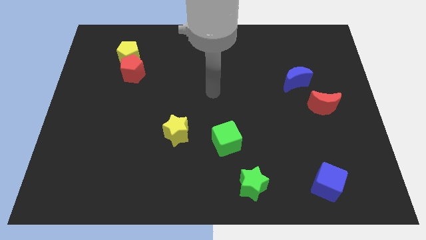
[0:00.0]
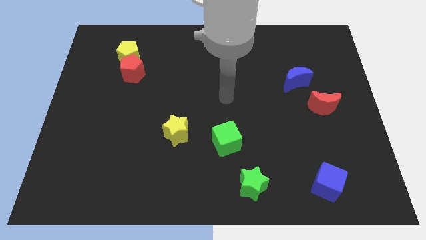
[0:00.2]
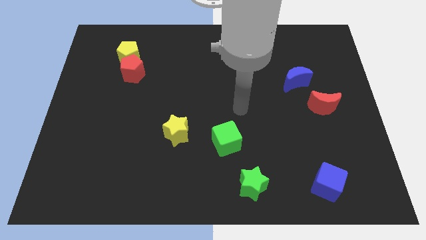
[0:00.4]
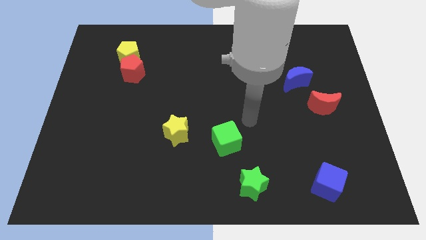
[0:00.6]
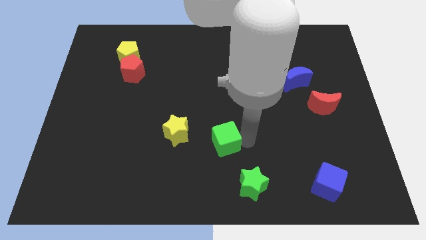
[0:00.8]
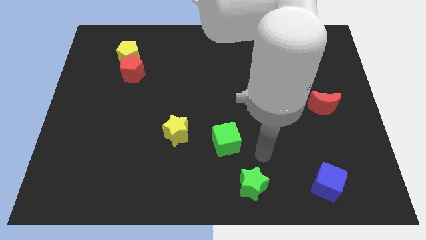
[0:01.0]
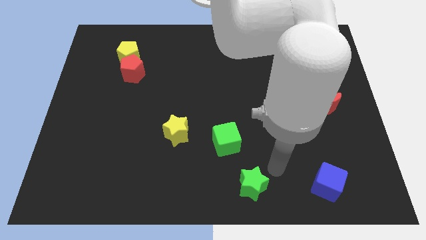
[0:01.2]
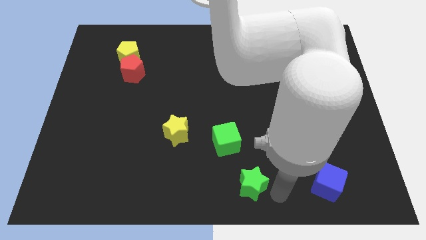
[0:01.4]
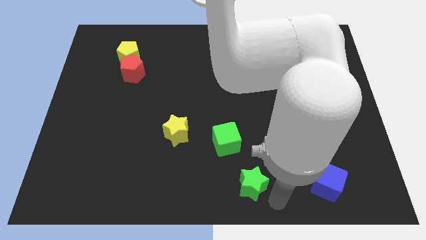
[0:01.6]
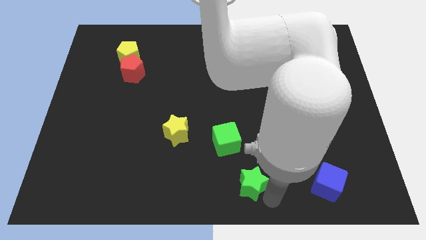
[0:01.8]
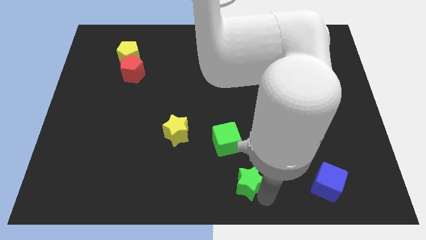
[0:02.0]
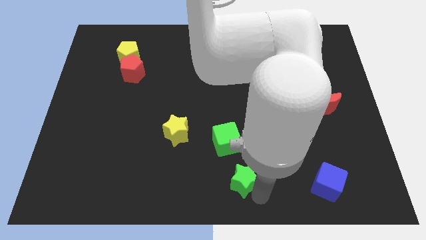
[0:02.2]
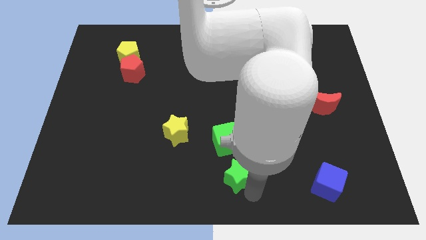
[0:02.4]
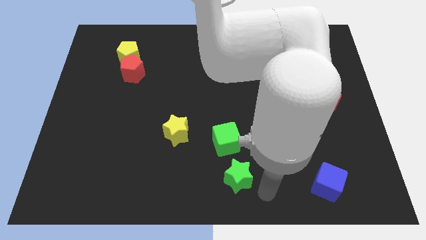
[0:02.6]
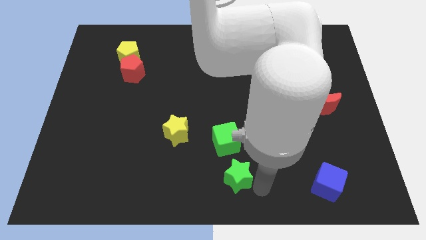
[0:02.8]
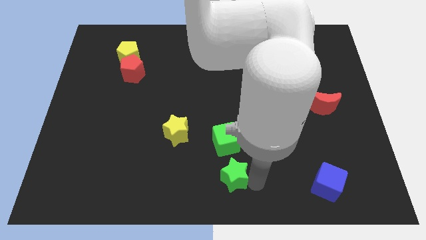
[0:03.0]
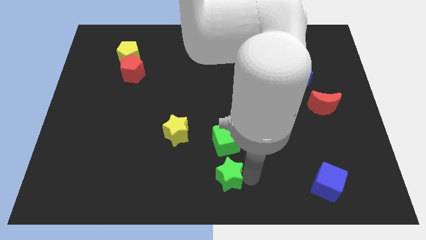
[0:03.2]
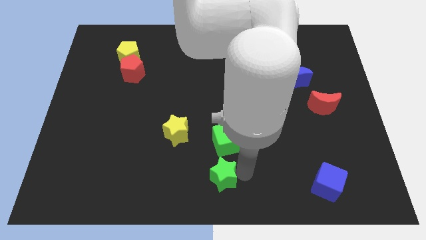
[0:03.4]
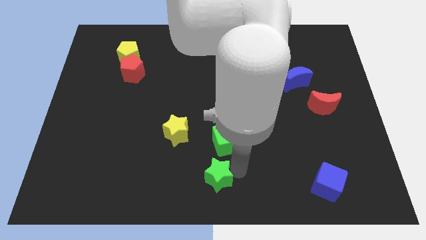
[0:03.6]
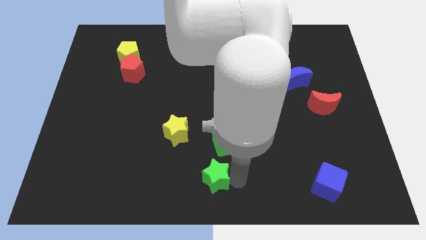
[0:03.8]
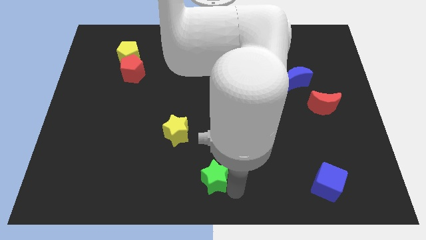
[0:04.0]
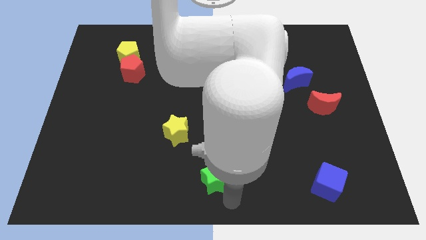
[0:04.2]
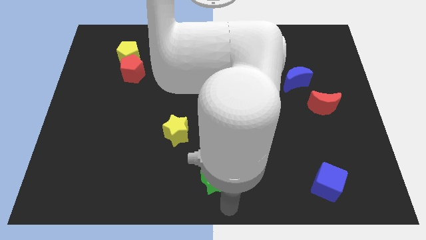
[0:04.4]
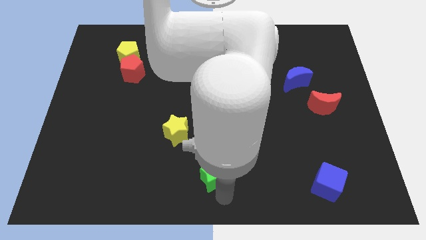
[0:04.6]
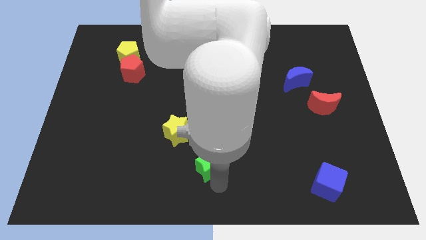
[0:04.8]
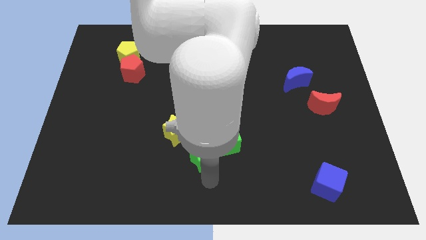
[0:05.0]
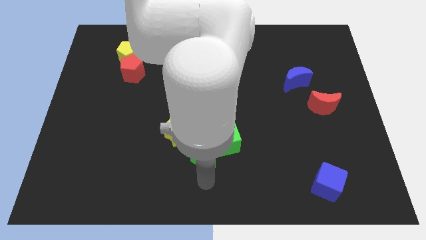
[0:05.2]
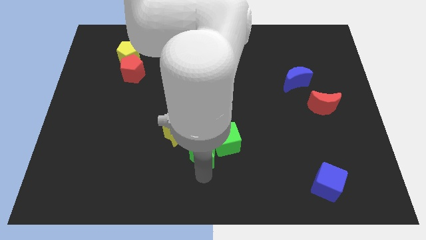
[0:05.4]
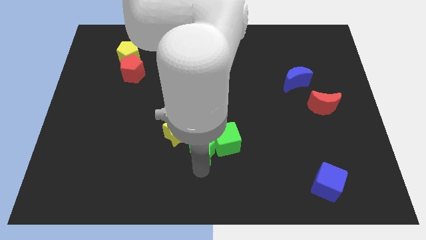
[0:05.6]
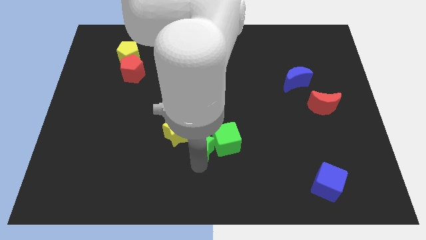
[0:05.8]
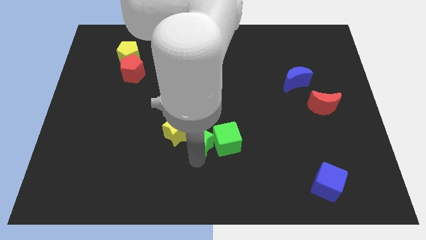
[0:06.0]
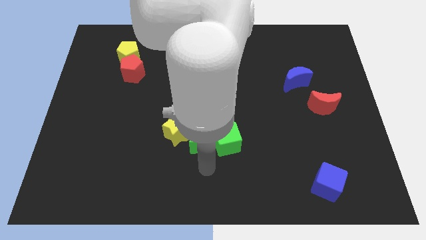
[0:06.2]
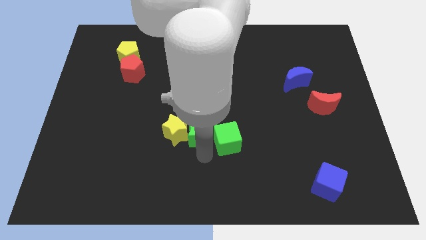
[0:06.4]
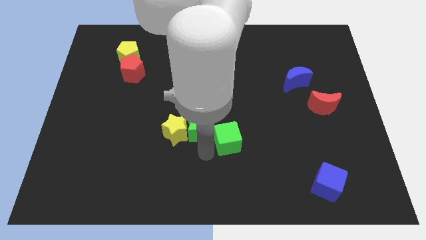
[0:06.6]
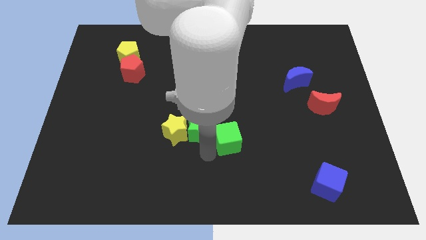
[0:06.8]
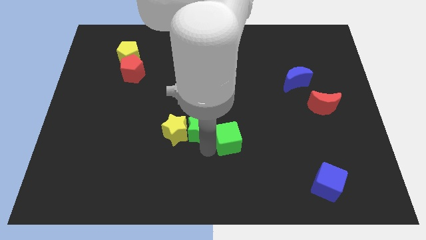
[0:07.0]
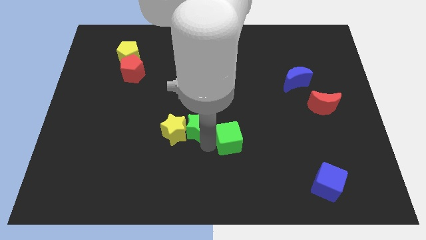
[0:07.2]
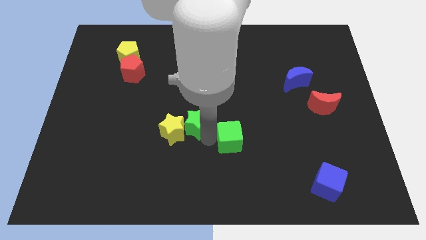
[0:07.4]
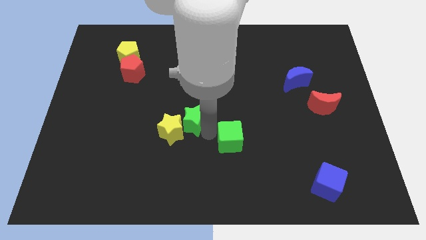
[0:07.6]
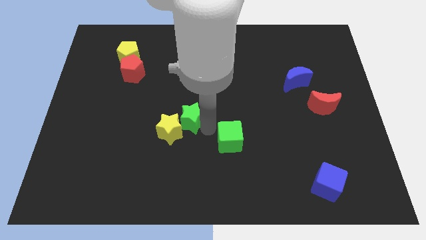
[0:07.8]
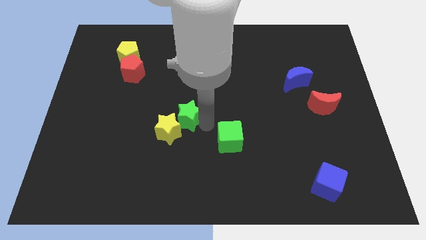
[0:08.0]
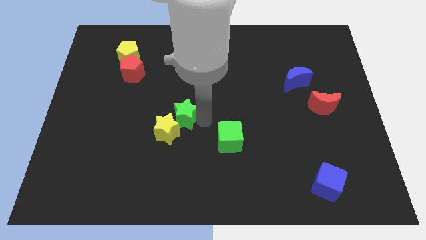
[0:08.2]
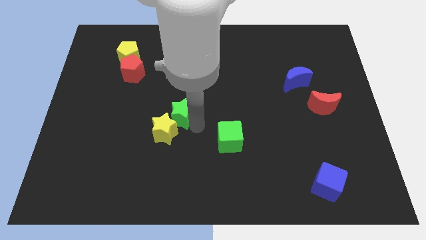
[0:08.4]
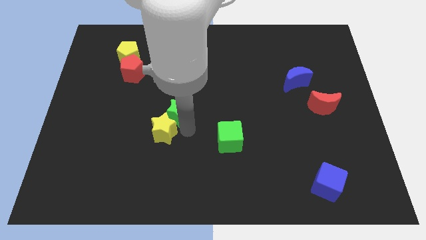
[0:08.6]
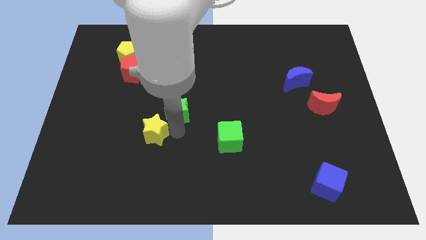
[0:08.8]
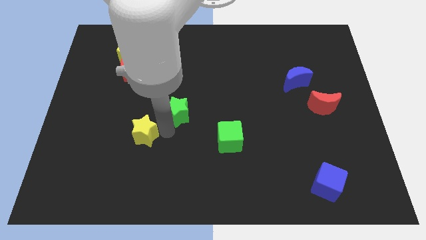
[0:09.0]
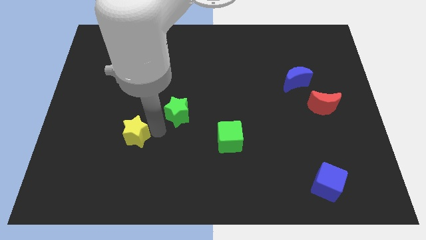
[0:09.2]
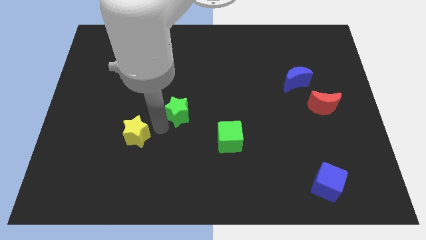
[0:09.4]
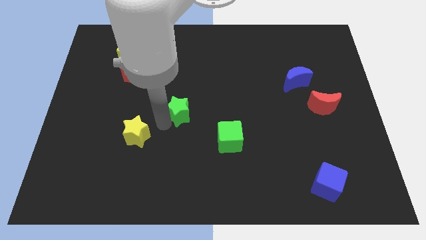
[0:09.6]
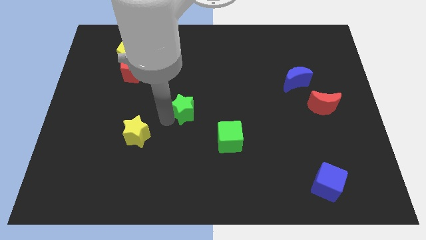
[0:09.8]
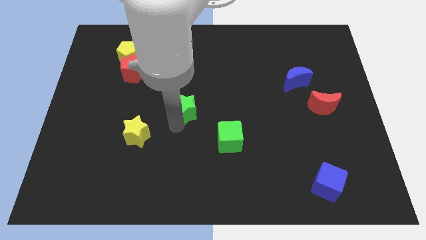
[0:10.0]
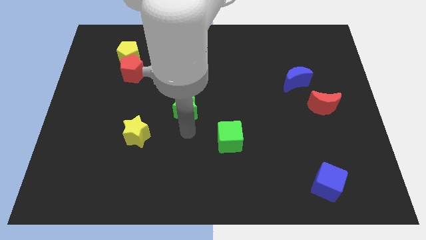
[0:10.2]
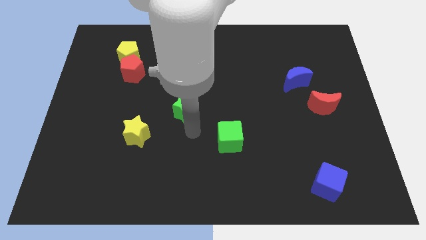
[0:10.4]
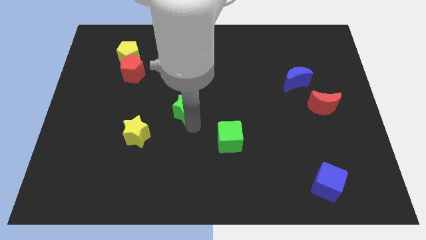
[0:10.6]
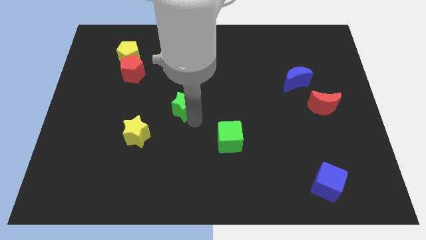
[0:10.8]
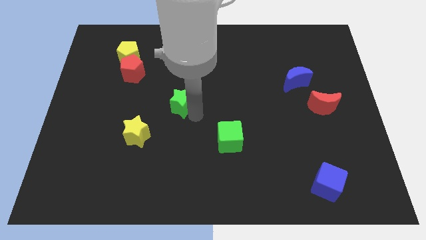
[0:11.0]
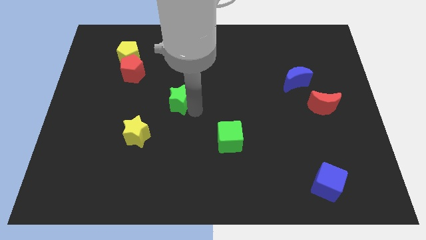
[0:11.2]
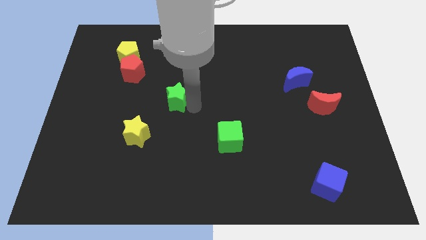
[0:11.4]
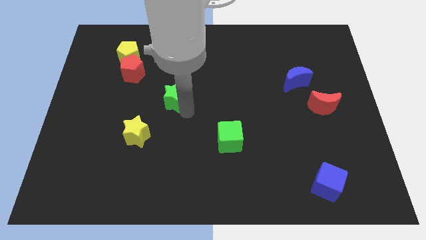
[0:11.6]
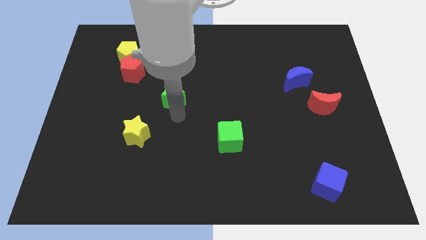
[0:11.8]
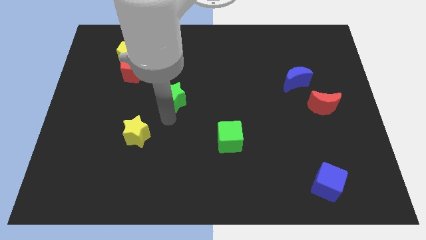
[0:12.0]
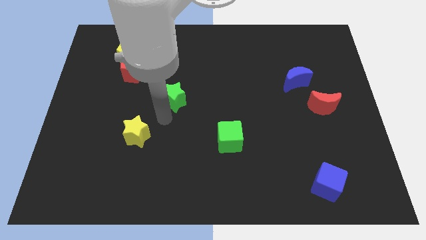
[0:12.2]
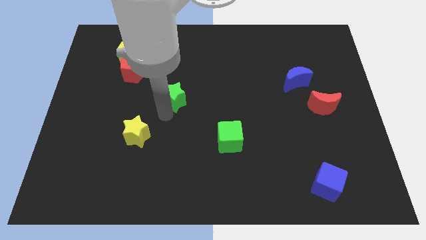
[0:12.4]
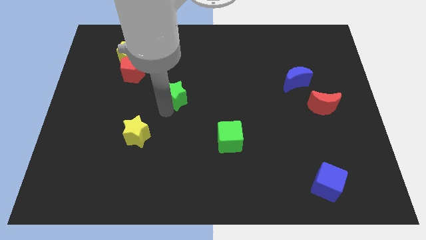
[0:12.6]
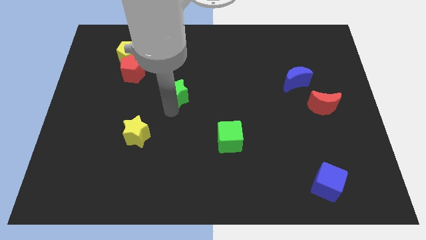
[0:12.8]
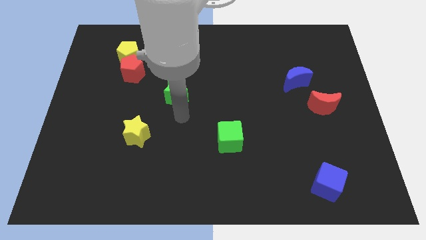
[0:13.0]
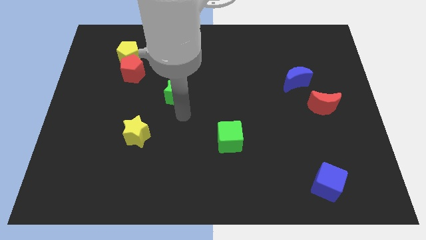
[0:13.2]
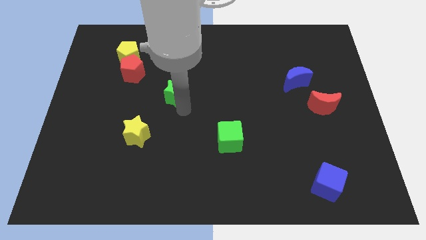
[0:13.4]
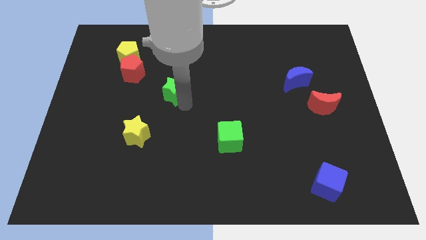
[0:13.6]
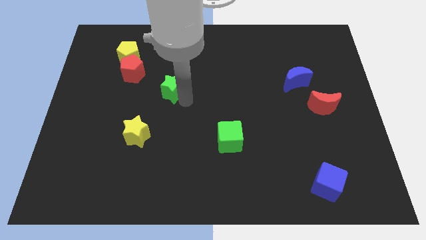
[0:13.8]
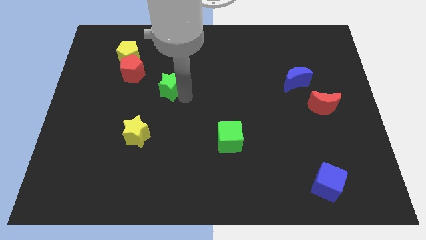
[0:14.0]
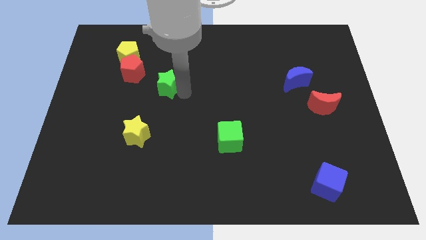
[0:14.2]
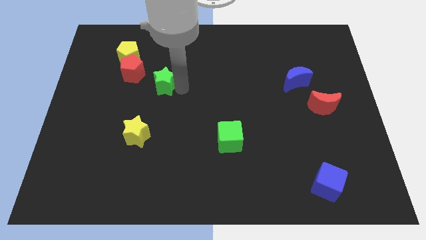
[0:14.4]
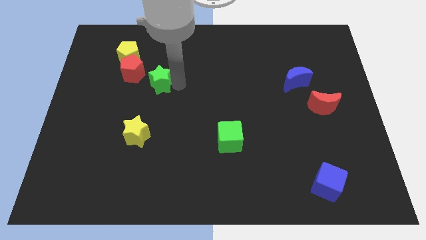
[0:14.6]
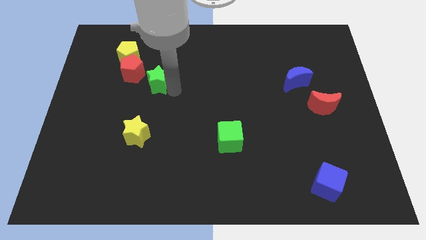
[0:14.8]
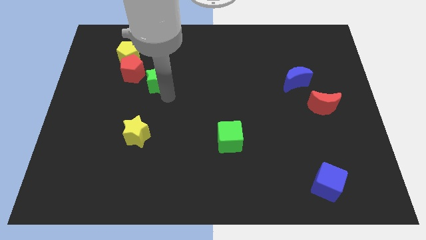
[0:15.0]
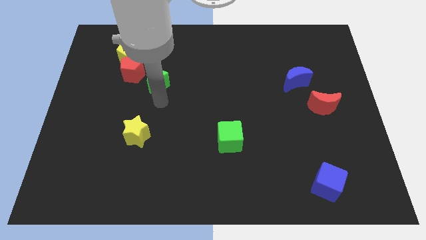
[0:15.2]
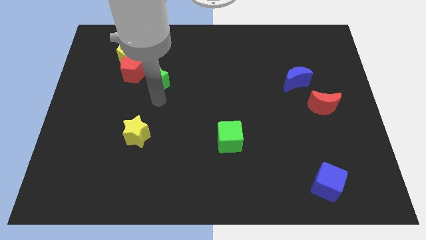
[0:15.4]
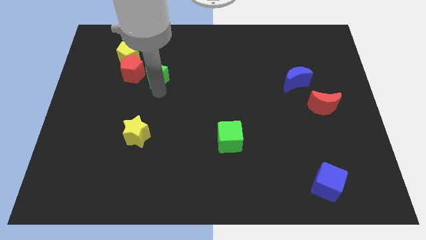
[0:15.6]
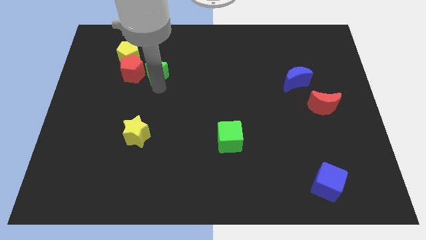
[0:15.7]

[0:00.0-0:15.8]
push the green star to the top right side of the red pentagon
